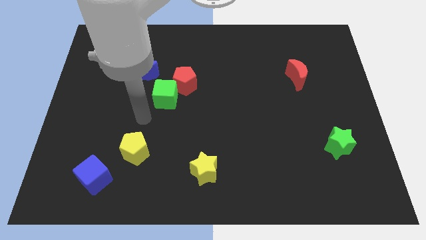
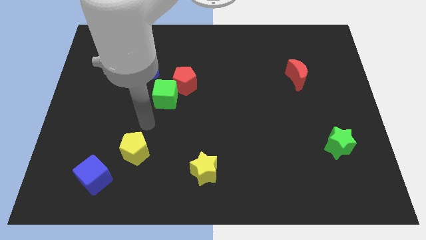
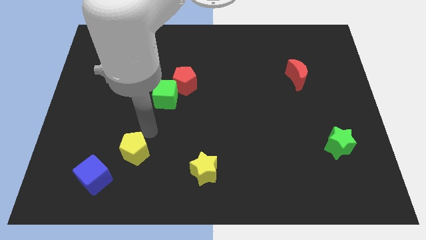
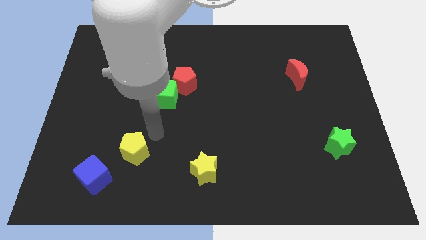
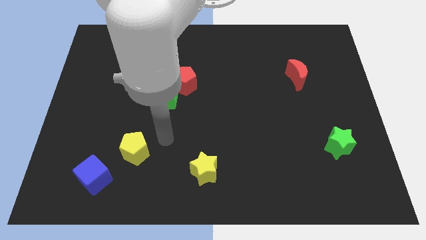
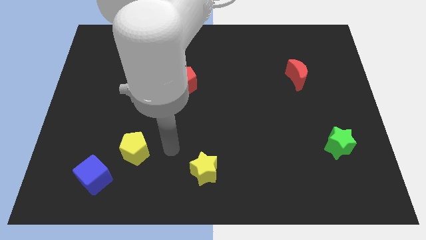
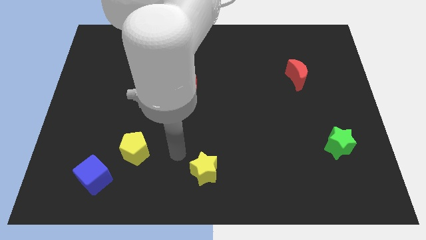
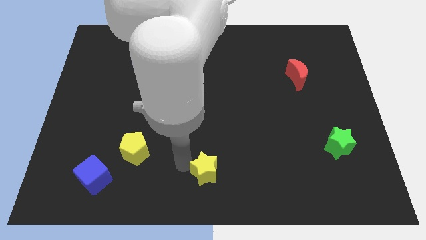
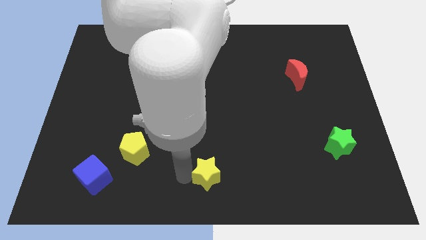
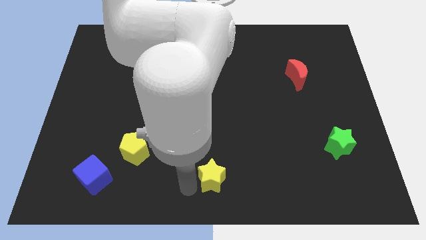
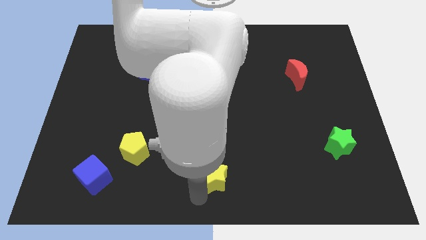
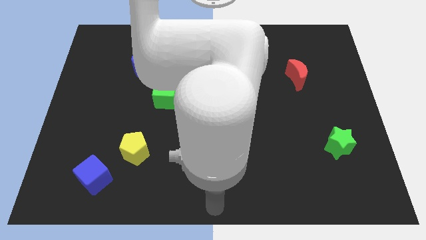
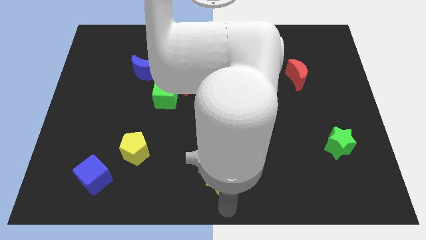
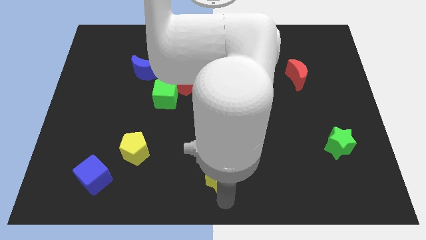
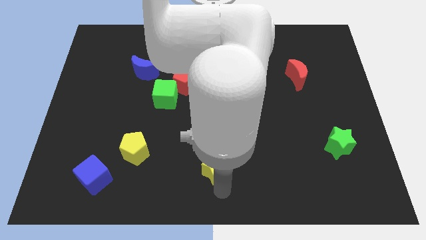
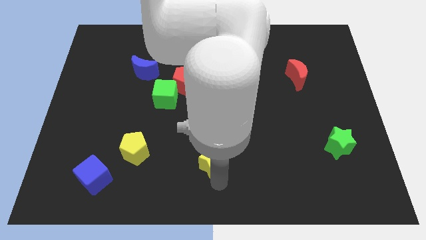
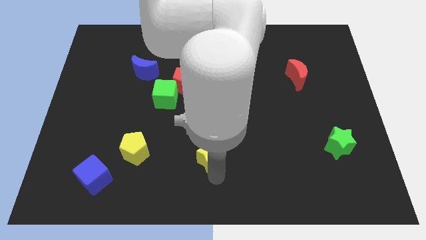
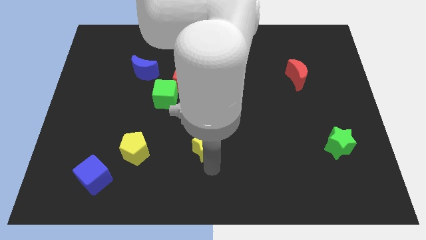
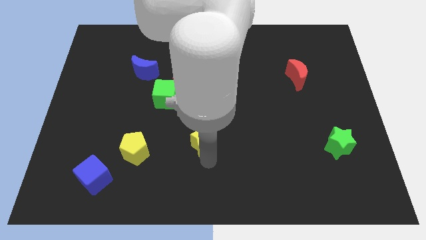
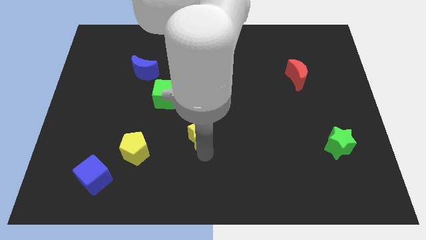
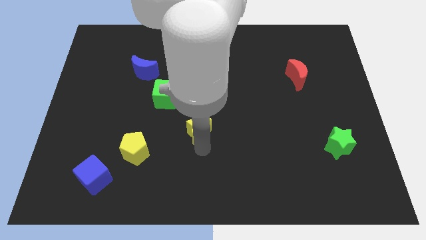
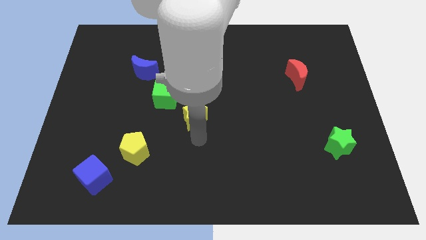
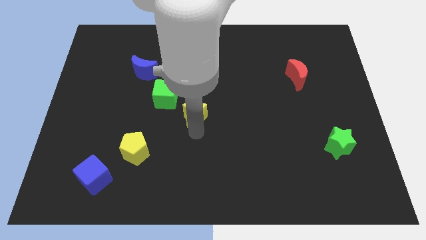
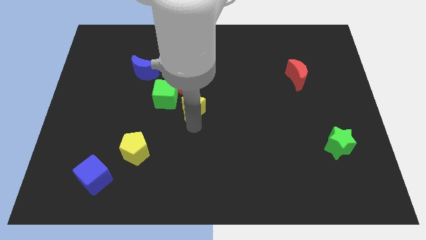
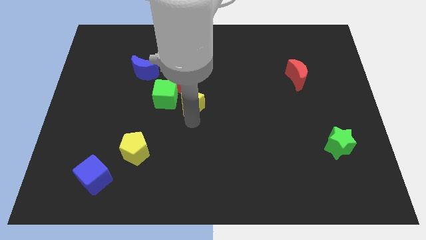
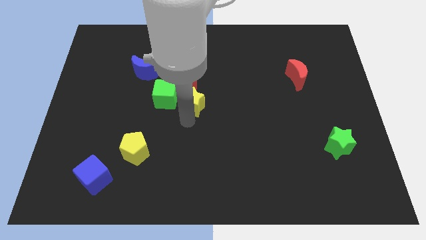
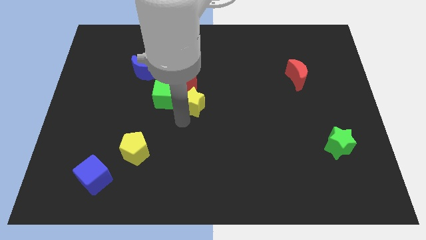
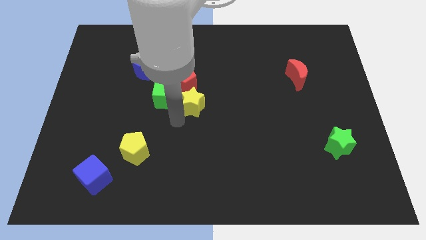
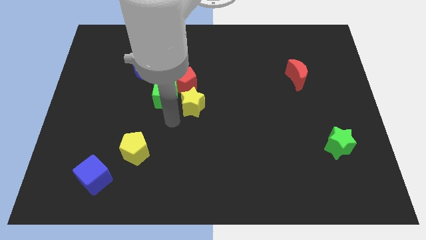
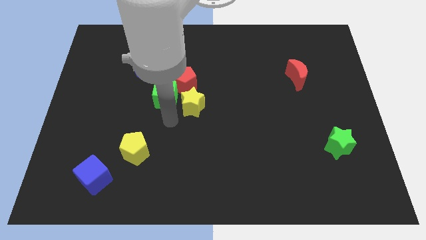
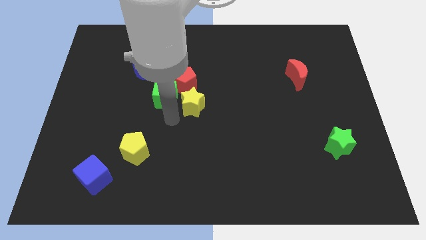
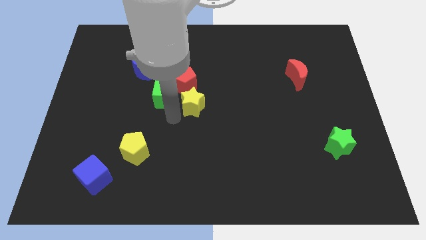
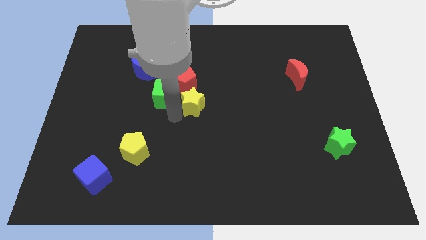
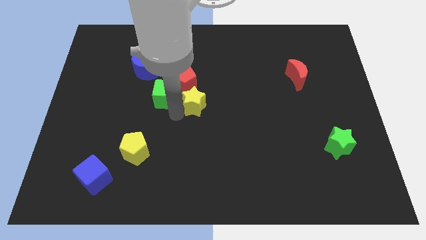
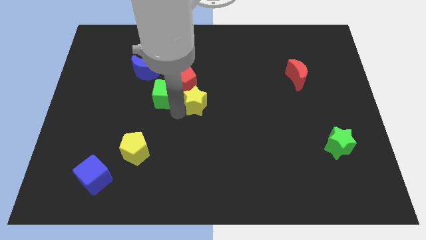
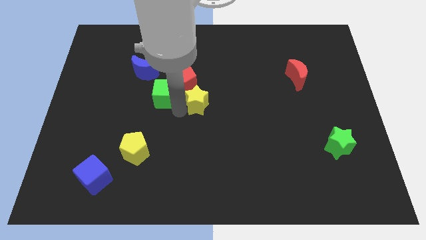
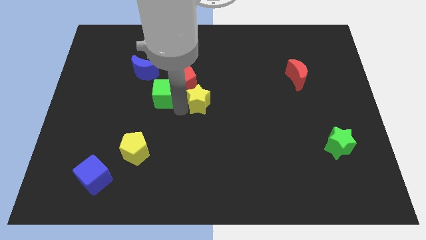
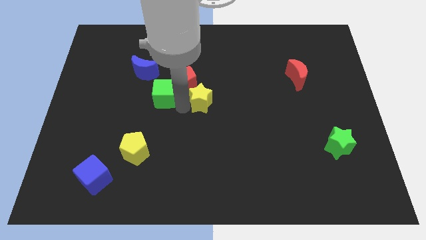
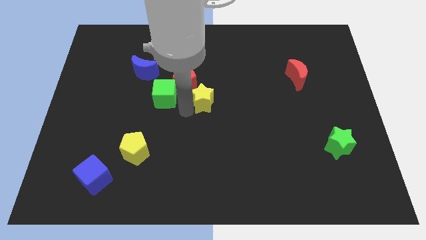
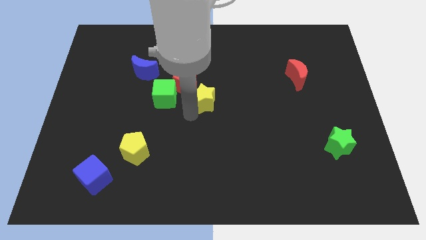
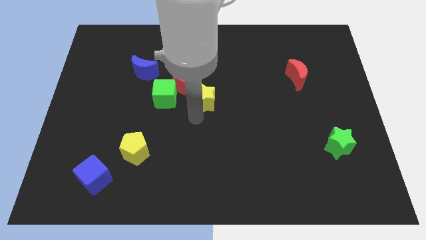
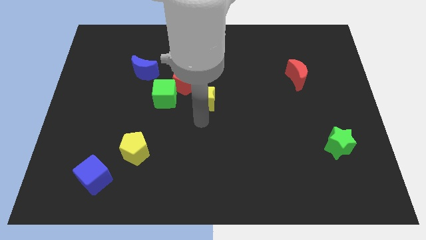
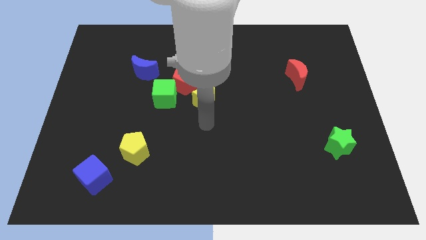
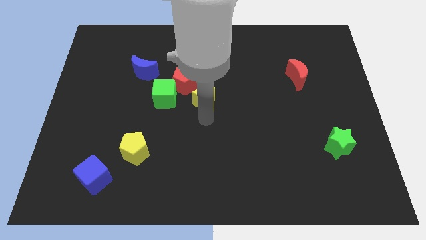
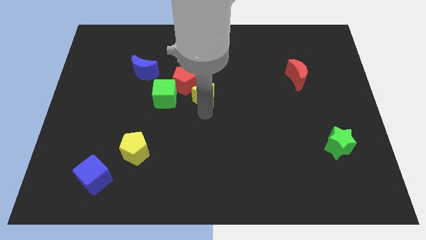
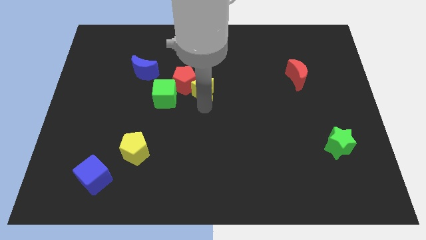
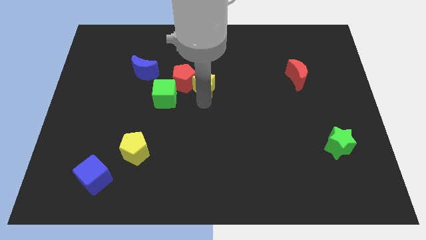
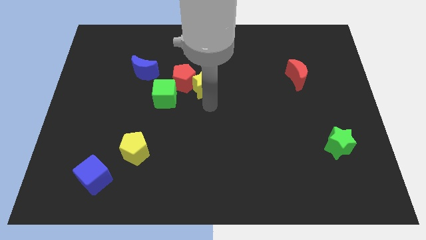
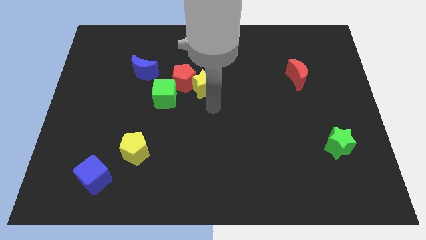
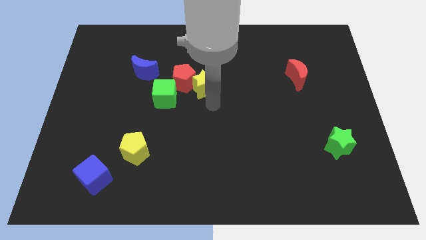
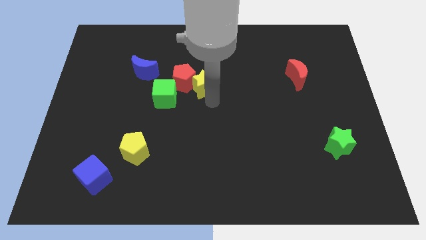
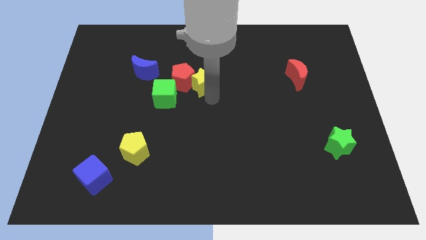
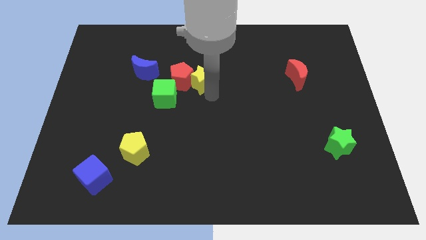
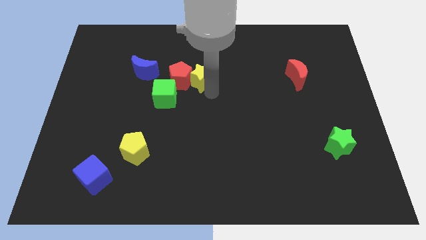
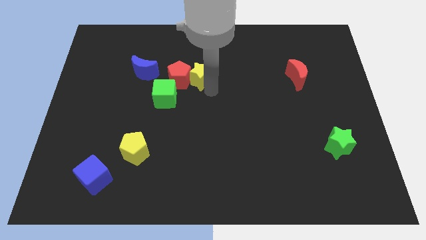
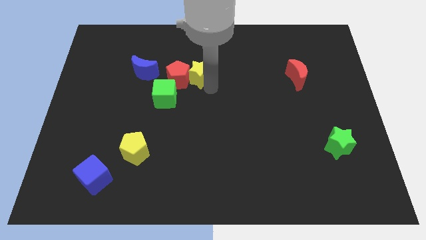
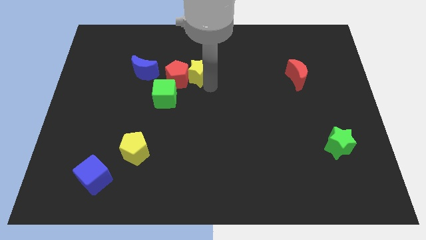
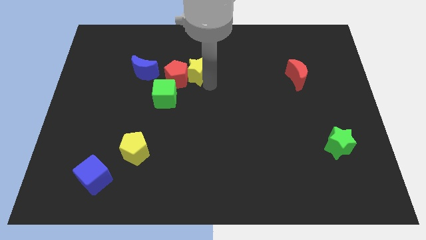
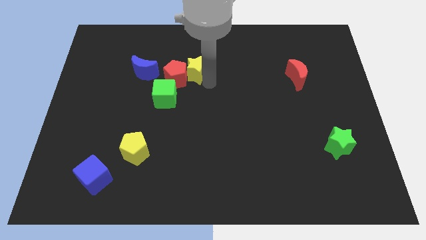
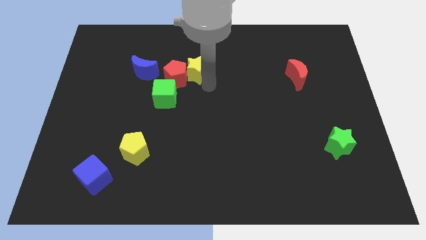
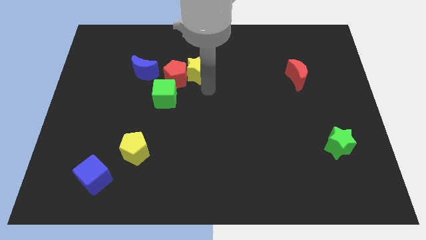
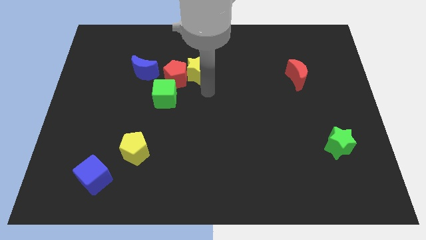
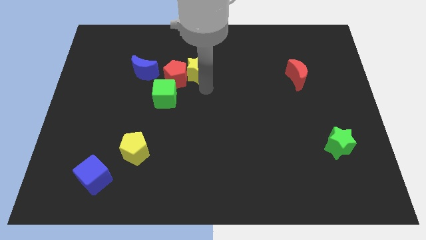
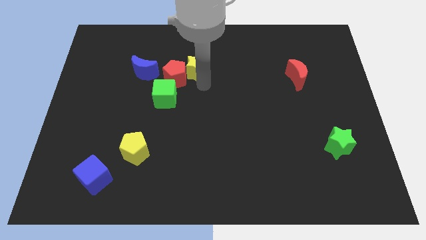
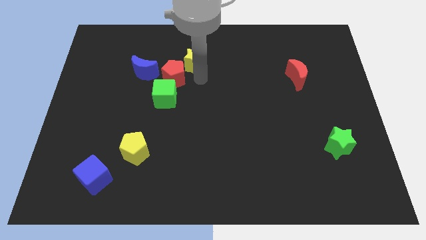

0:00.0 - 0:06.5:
push the yellow star to the top side of the red pentagon

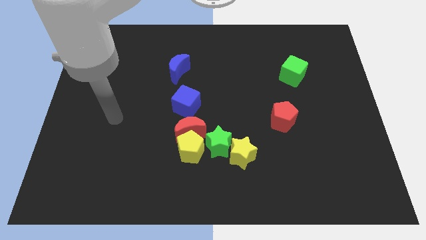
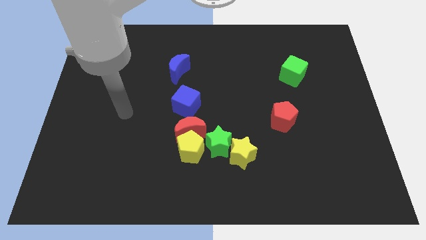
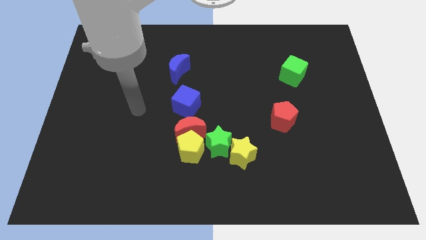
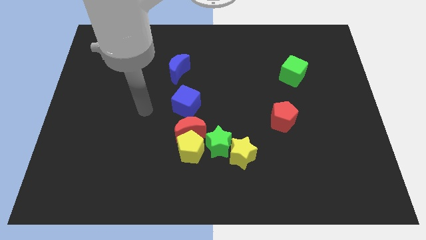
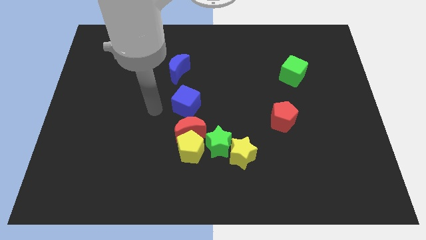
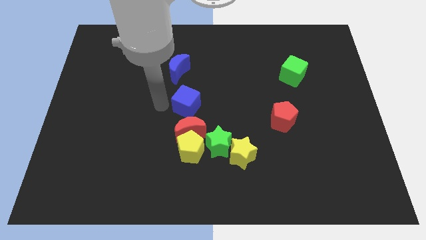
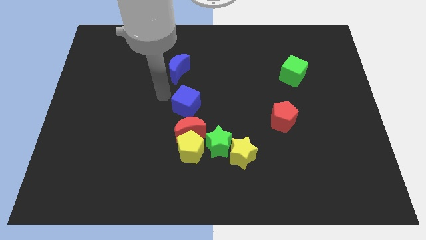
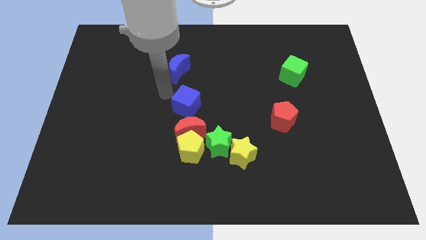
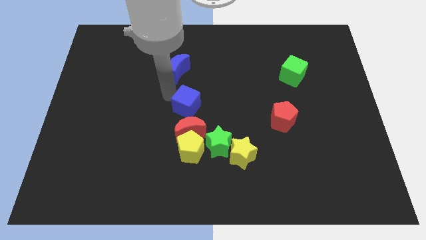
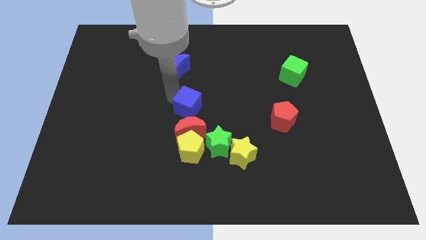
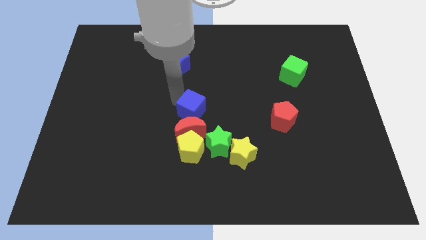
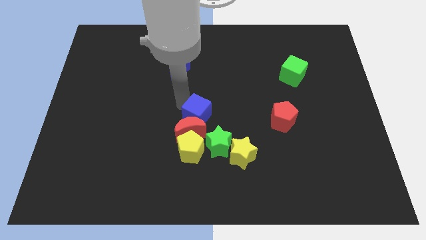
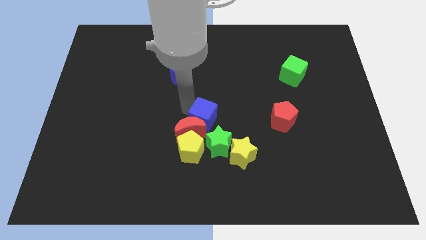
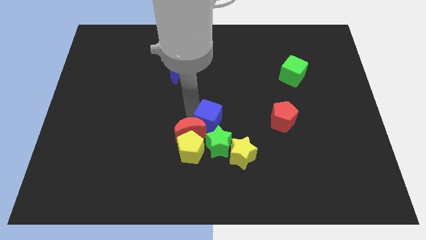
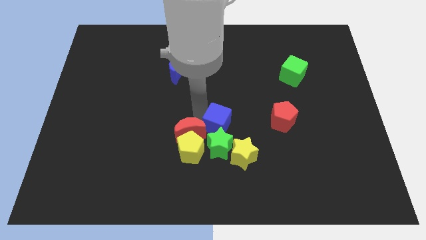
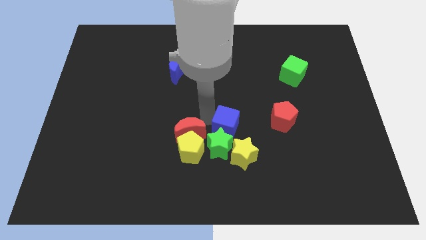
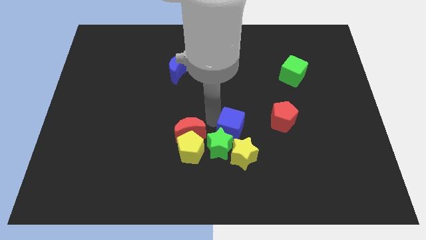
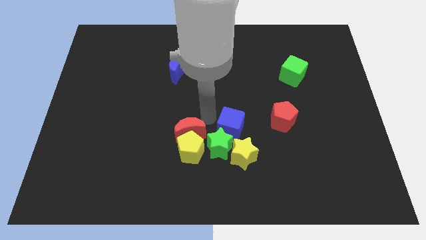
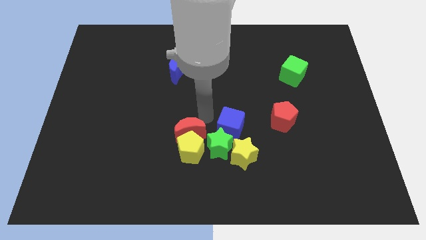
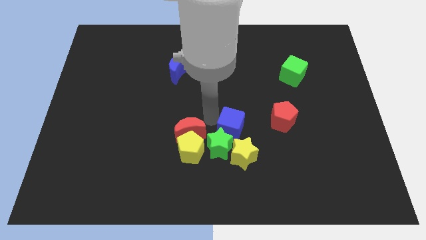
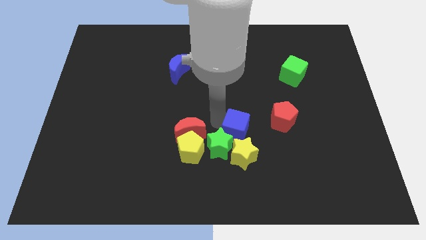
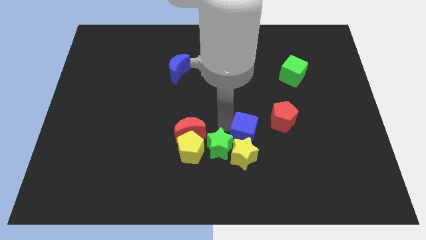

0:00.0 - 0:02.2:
slide the blue cube to the bottom left side of the red pentagon
